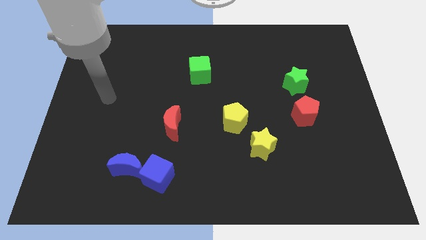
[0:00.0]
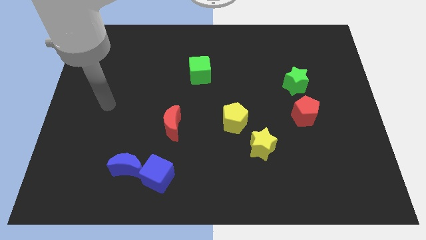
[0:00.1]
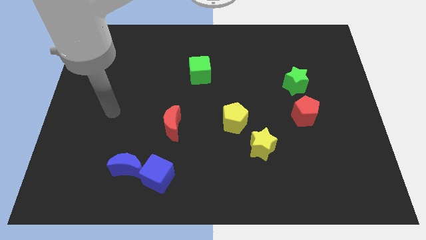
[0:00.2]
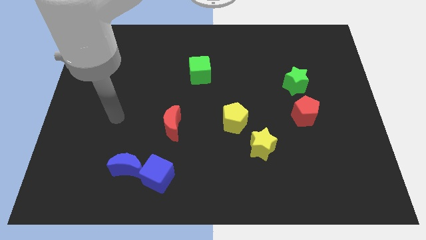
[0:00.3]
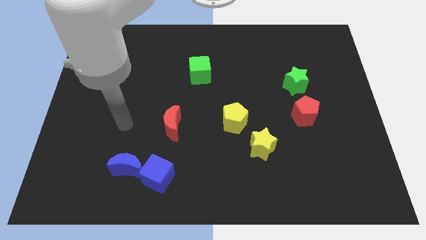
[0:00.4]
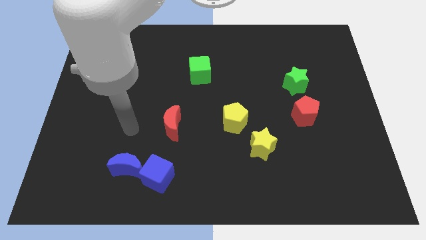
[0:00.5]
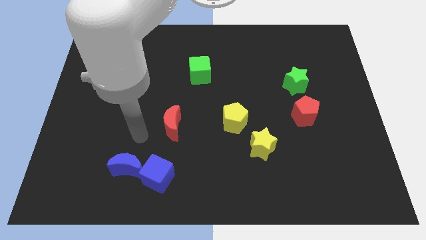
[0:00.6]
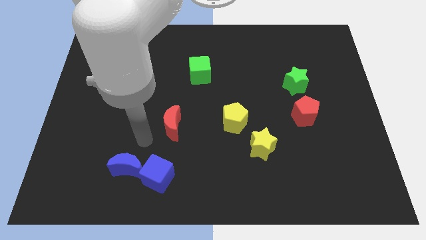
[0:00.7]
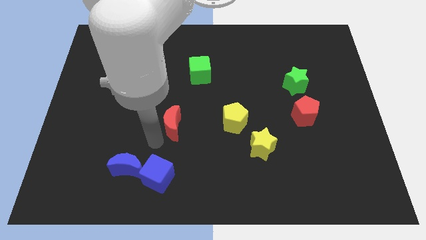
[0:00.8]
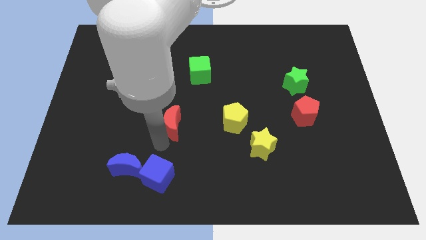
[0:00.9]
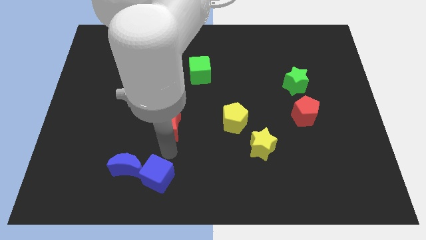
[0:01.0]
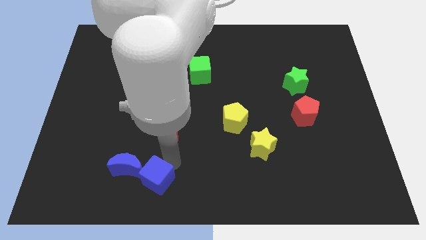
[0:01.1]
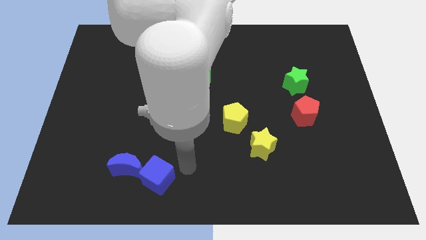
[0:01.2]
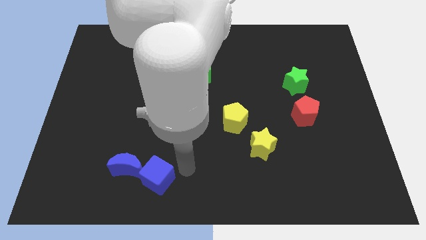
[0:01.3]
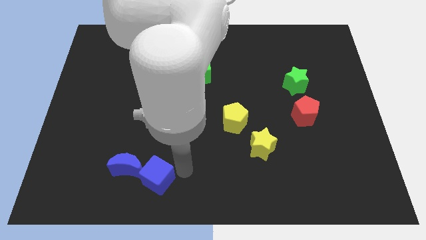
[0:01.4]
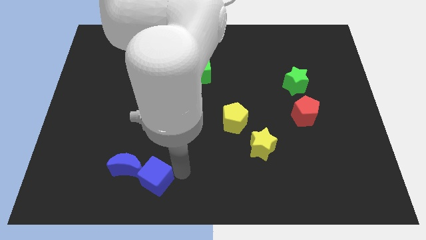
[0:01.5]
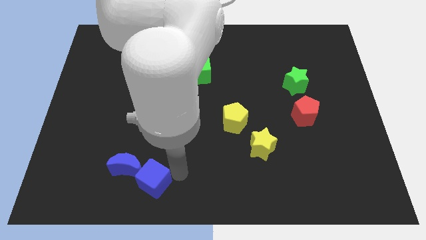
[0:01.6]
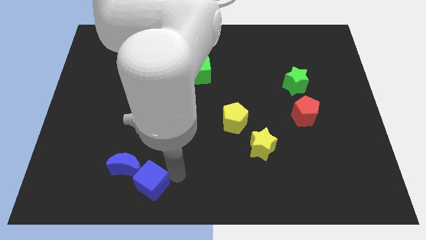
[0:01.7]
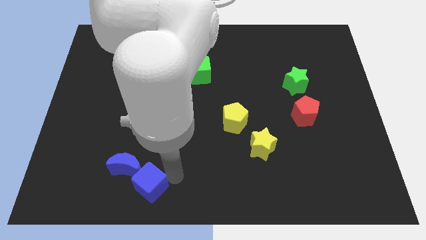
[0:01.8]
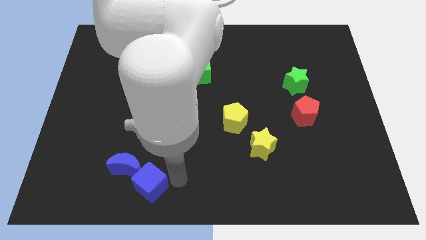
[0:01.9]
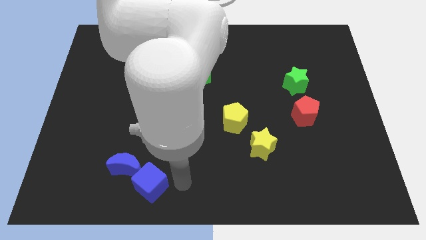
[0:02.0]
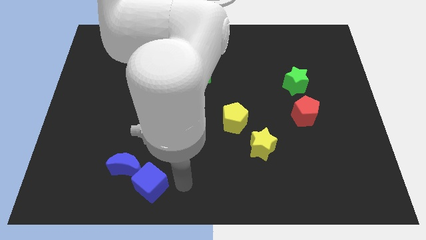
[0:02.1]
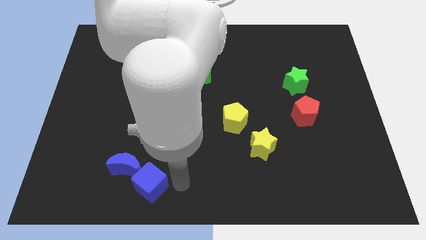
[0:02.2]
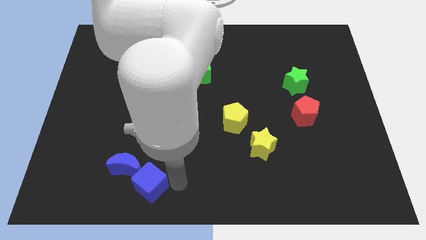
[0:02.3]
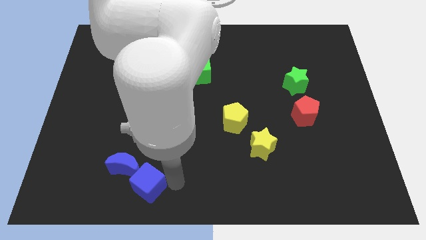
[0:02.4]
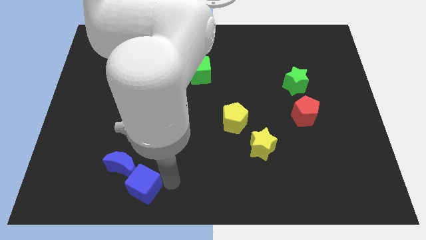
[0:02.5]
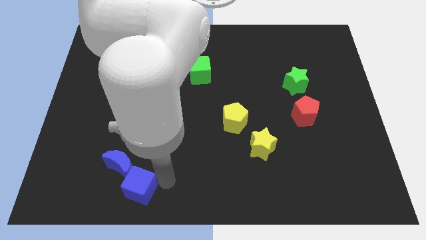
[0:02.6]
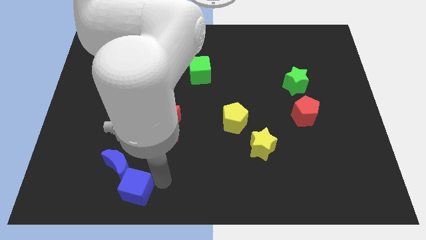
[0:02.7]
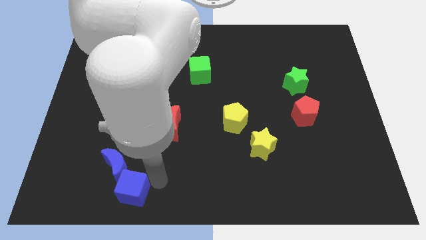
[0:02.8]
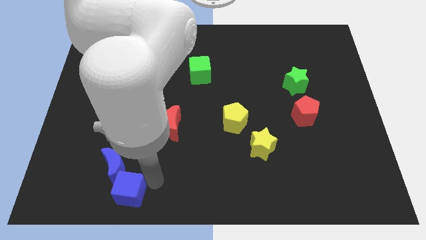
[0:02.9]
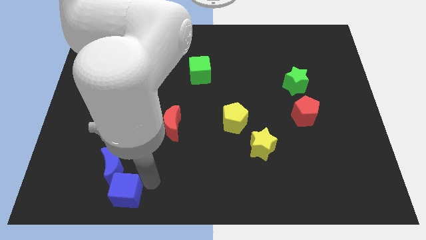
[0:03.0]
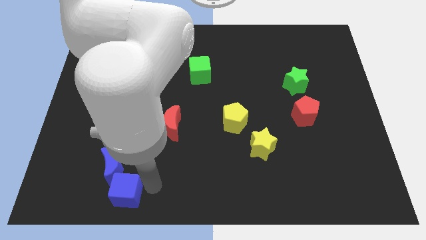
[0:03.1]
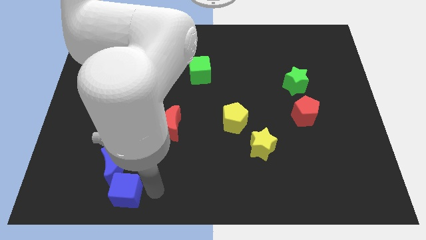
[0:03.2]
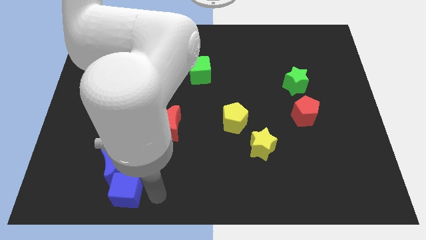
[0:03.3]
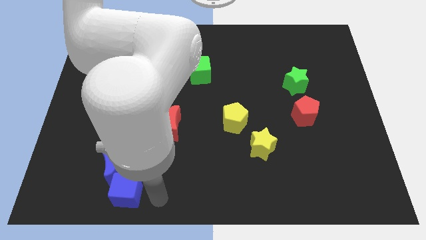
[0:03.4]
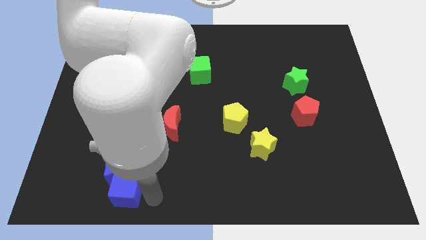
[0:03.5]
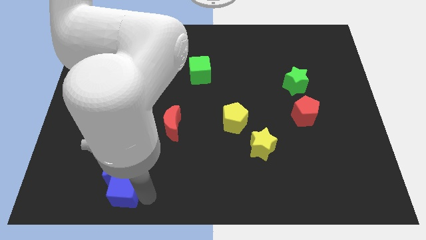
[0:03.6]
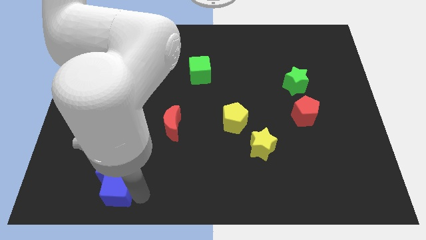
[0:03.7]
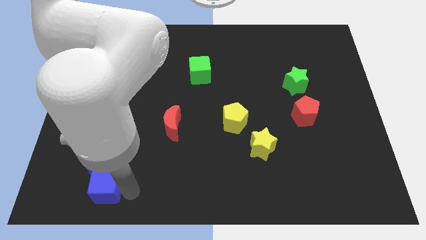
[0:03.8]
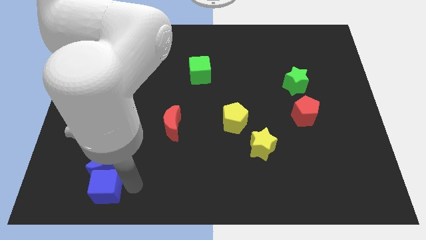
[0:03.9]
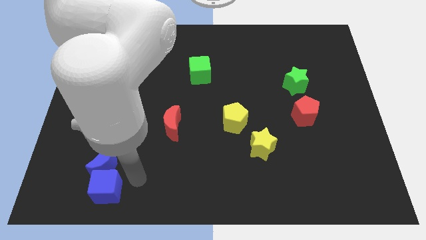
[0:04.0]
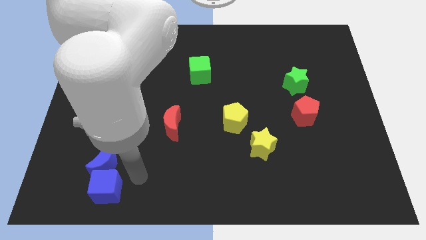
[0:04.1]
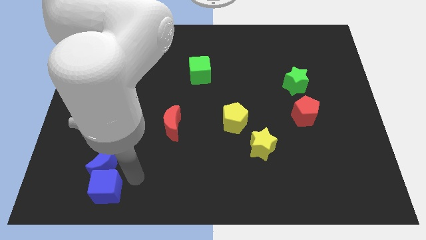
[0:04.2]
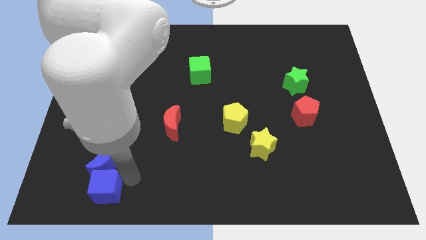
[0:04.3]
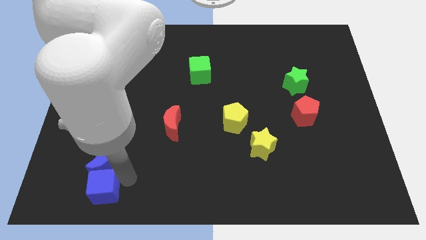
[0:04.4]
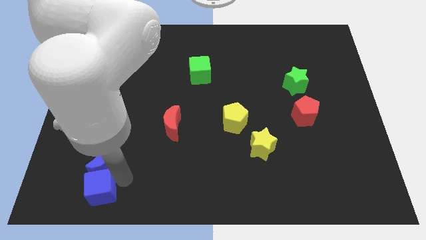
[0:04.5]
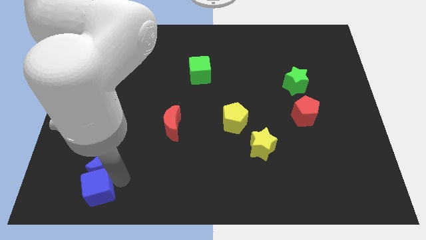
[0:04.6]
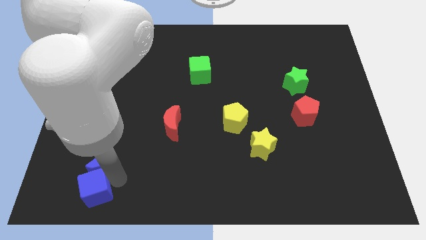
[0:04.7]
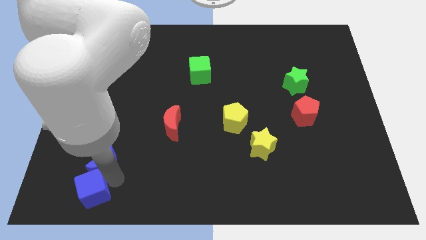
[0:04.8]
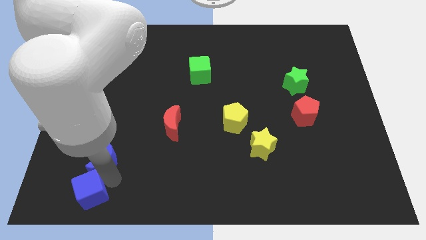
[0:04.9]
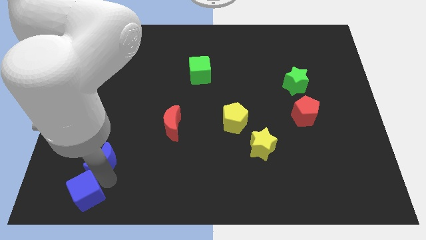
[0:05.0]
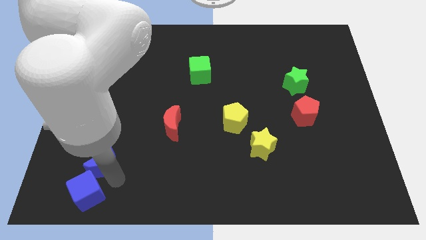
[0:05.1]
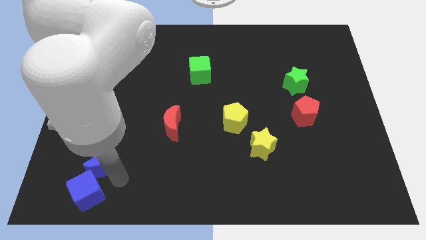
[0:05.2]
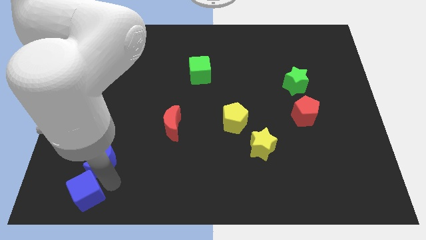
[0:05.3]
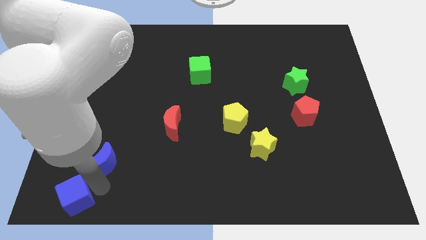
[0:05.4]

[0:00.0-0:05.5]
slide the blue cube to the bottom left

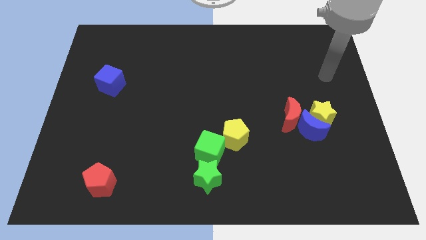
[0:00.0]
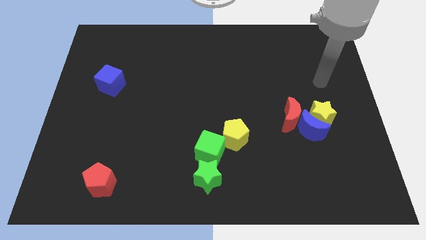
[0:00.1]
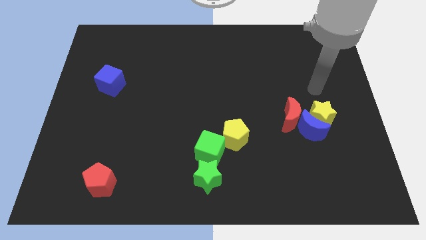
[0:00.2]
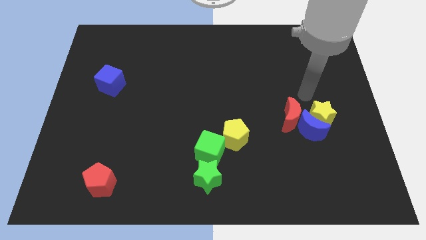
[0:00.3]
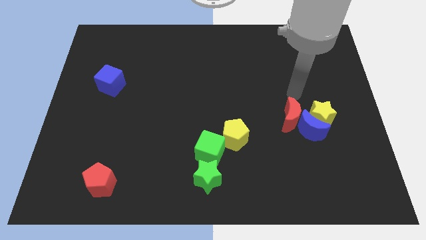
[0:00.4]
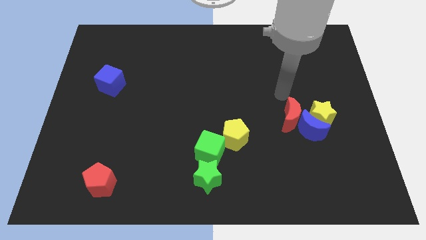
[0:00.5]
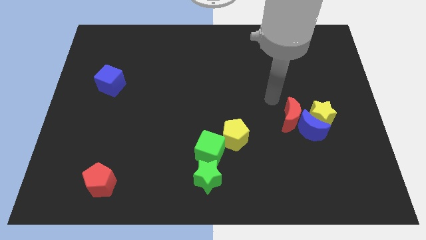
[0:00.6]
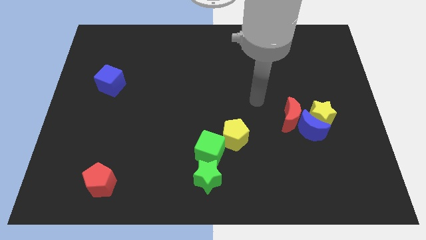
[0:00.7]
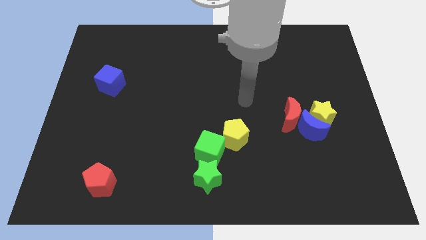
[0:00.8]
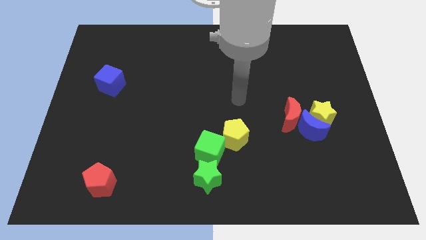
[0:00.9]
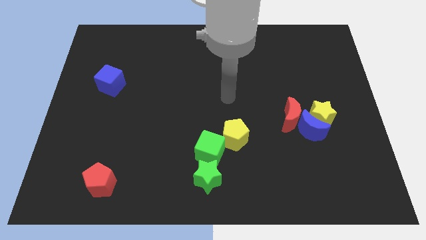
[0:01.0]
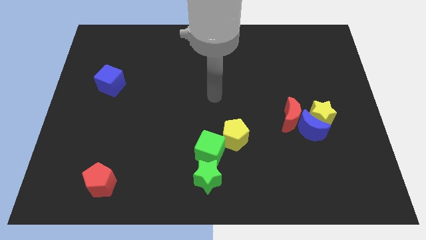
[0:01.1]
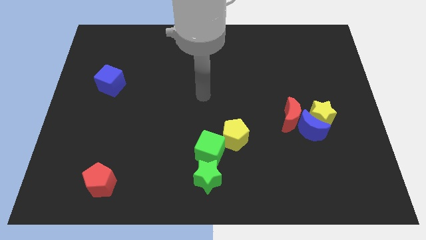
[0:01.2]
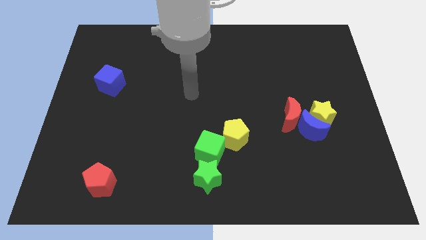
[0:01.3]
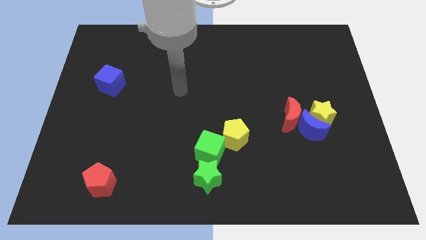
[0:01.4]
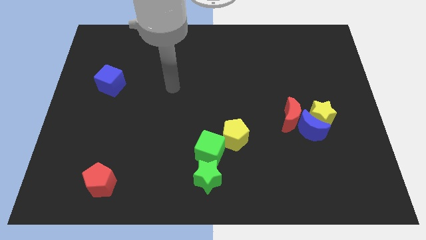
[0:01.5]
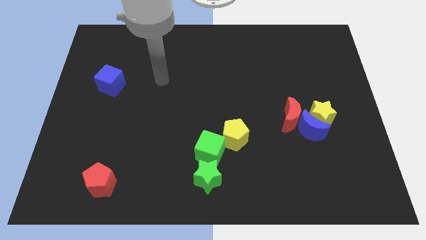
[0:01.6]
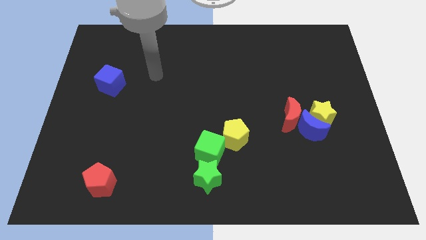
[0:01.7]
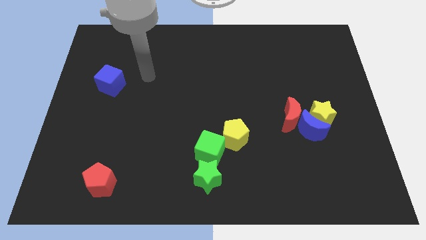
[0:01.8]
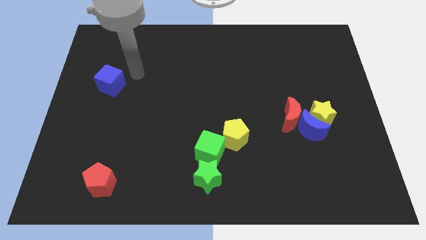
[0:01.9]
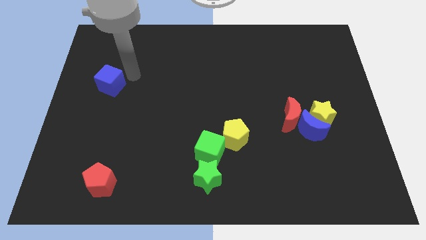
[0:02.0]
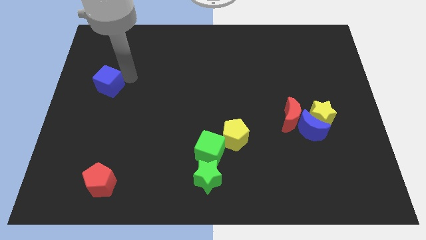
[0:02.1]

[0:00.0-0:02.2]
put the blue cube to the left side
